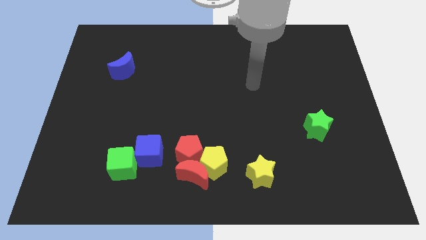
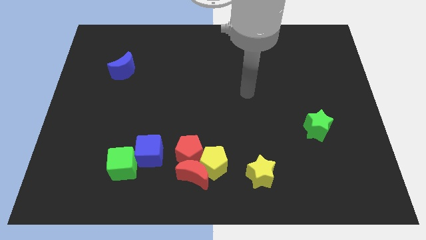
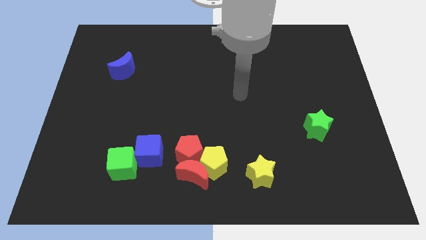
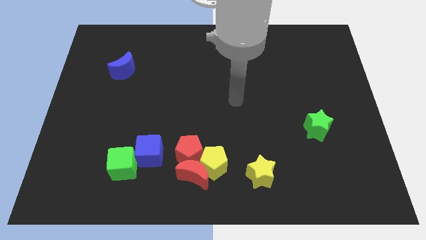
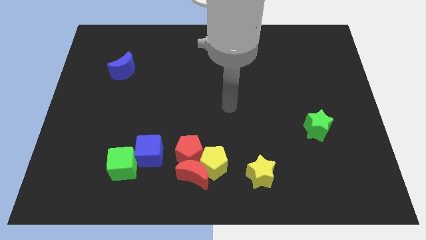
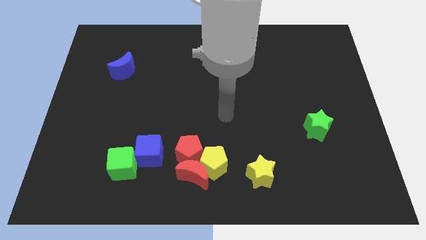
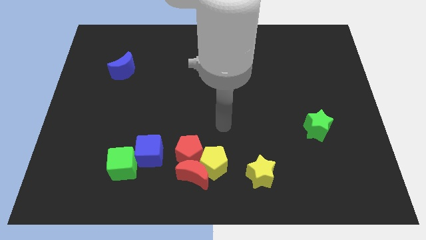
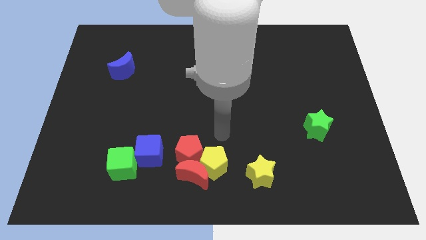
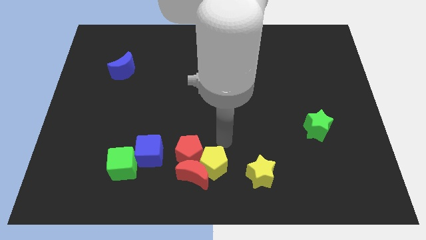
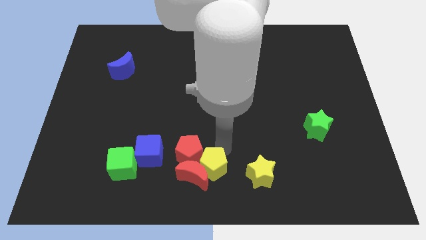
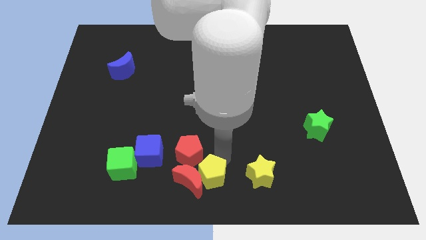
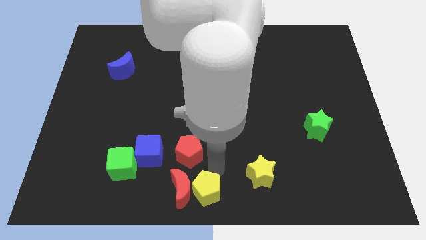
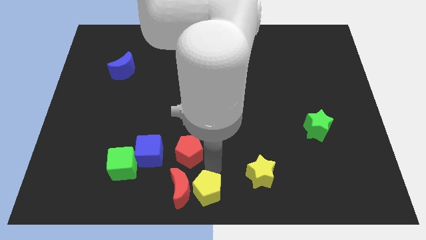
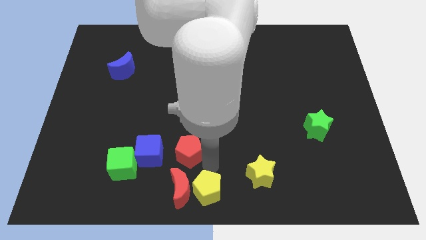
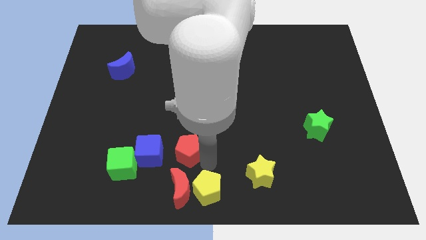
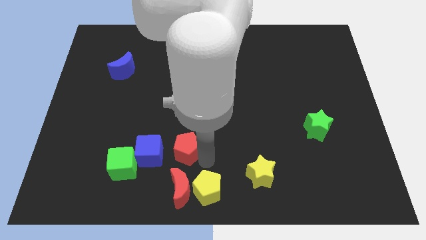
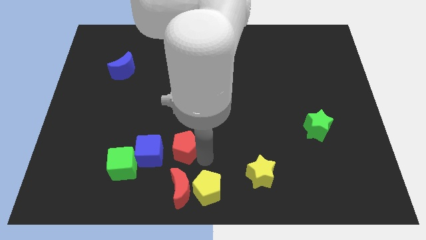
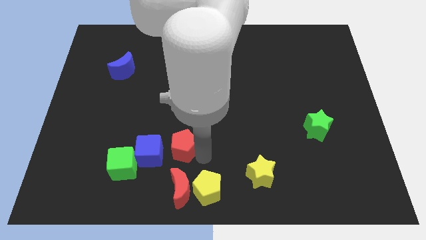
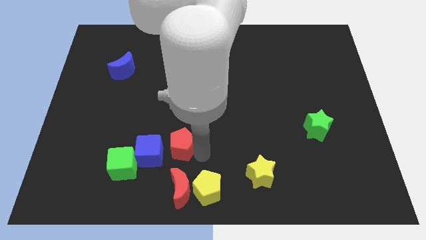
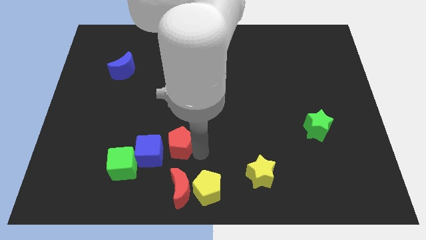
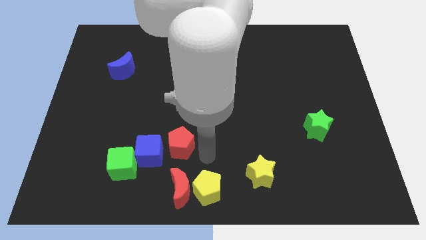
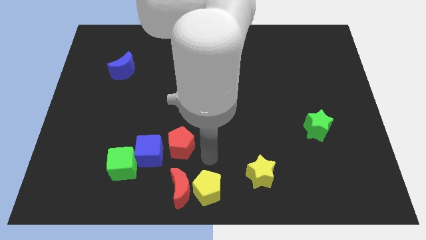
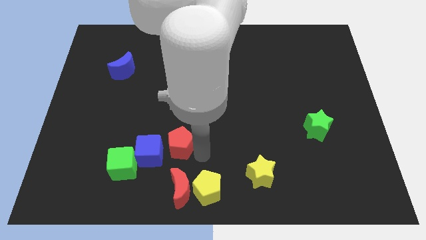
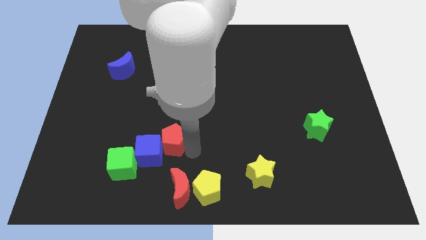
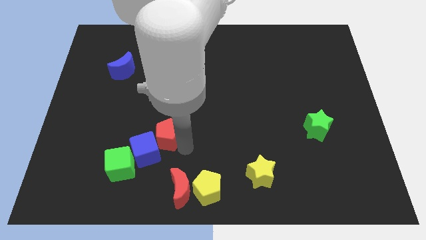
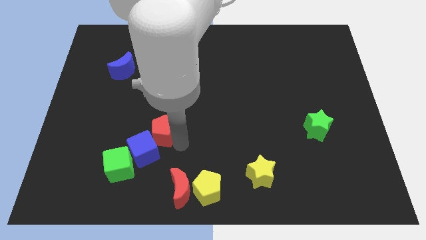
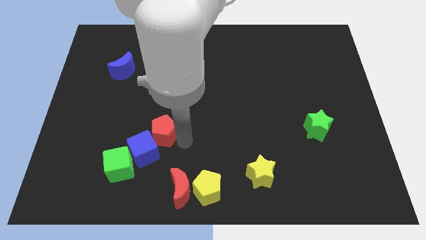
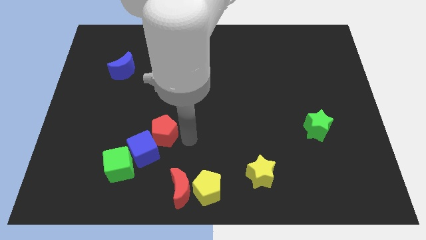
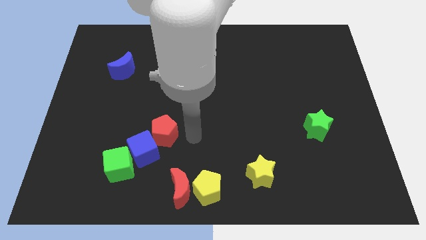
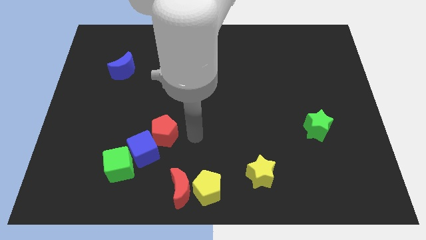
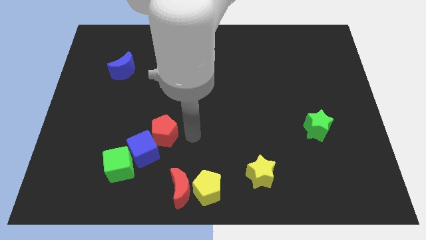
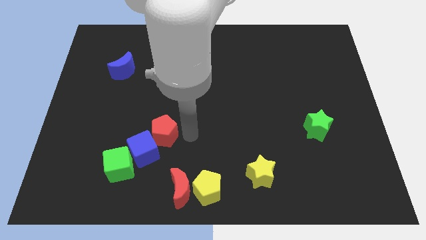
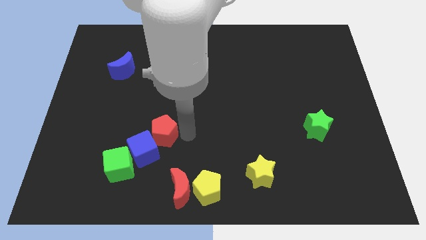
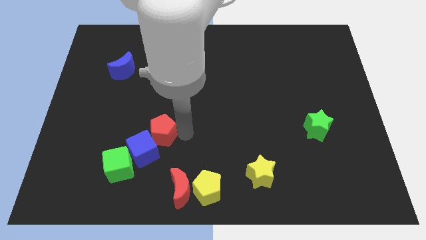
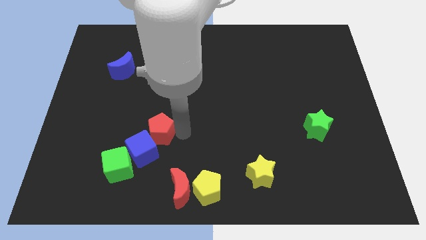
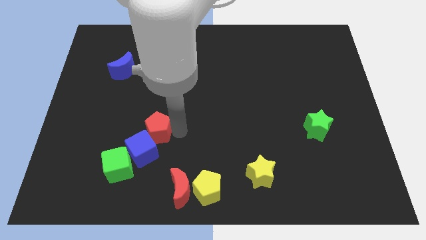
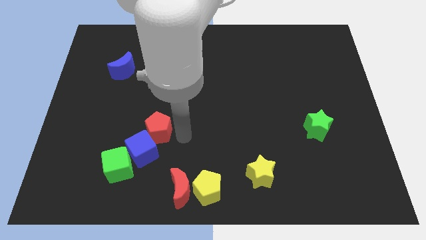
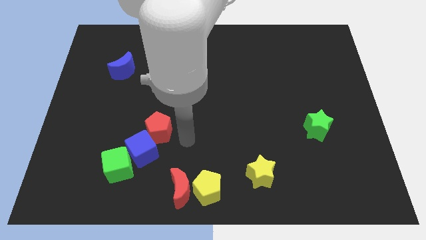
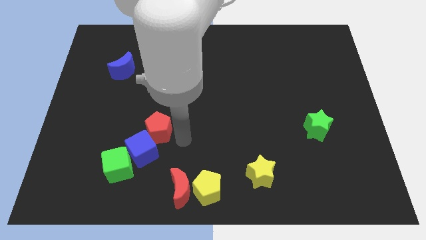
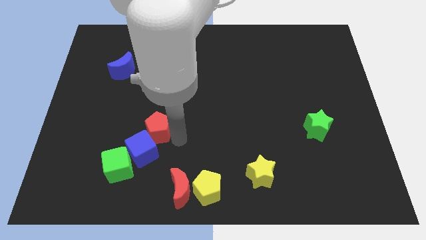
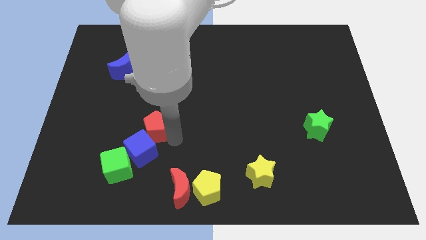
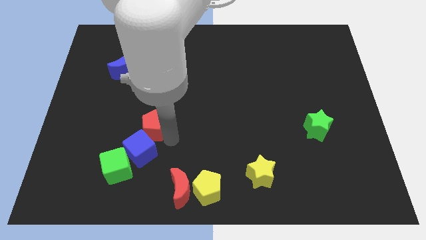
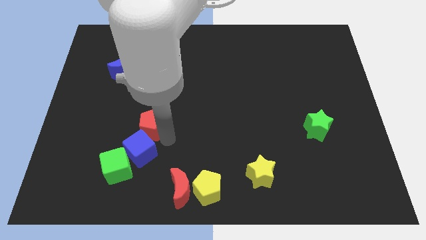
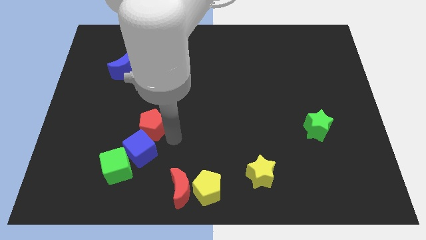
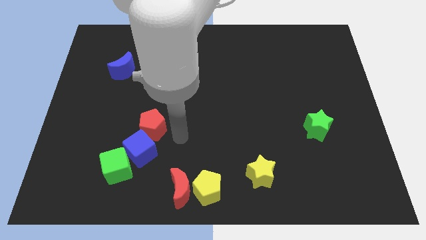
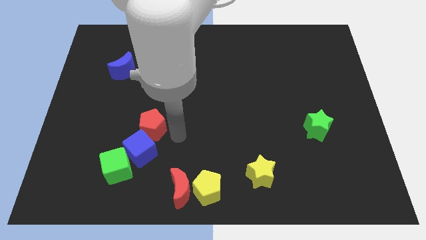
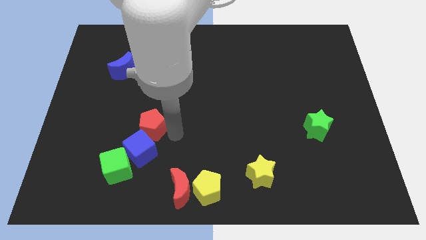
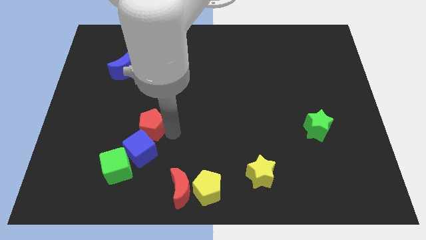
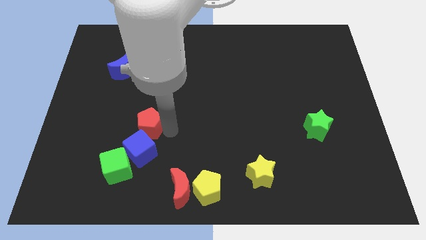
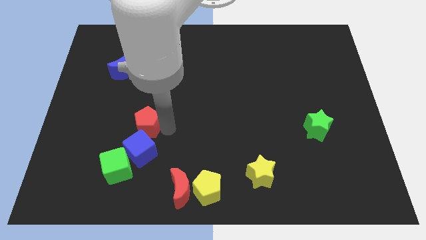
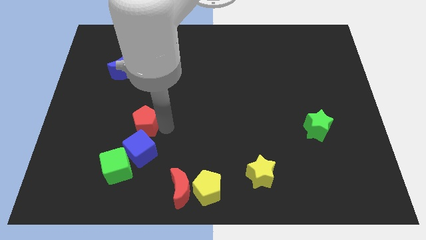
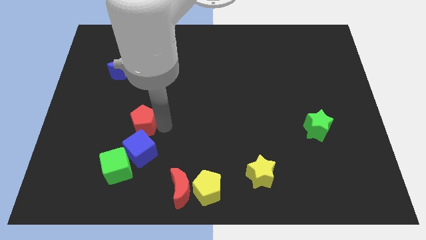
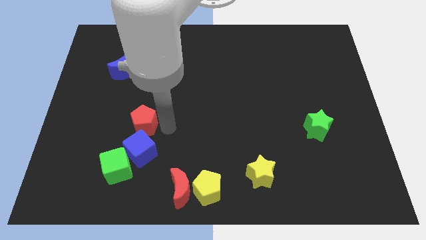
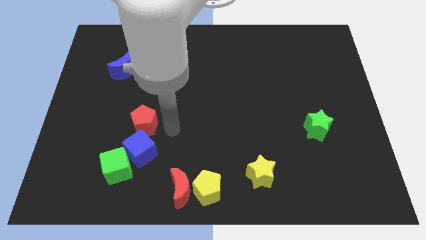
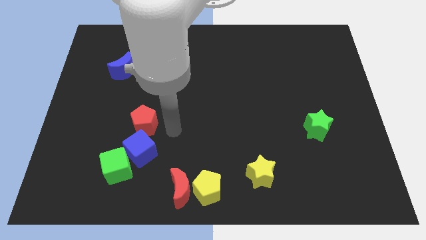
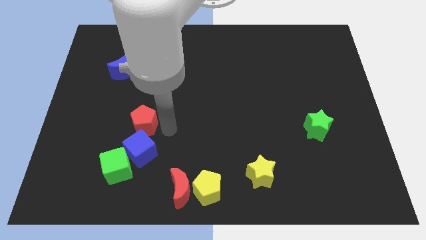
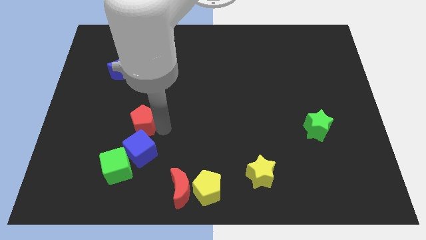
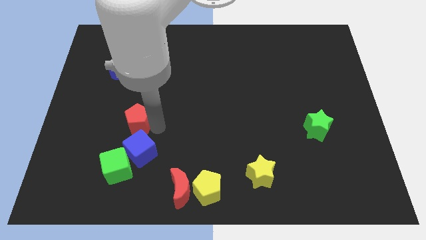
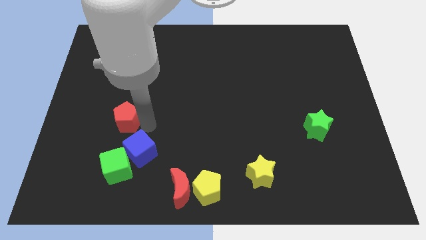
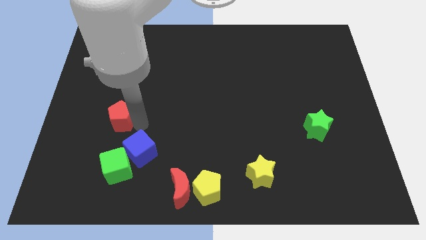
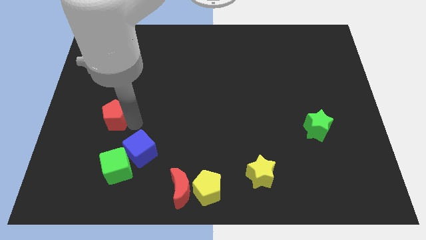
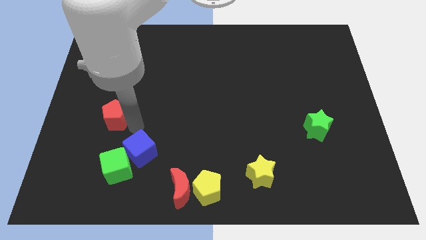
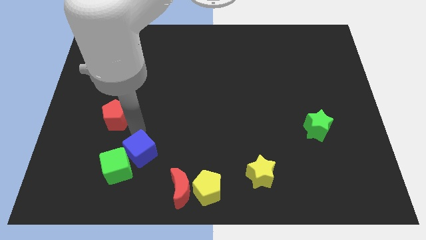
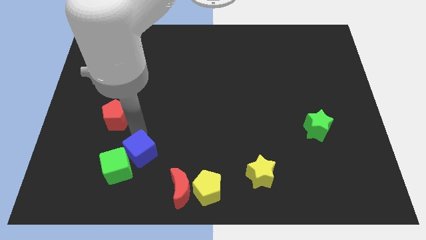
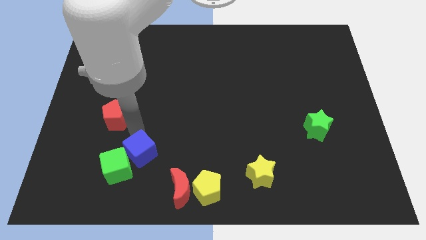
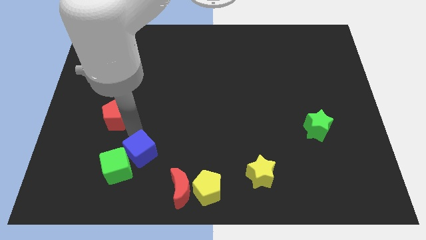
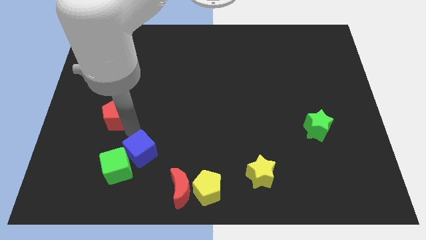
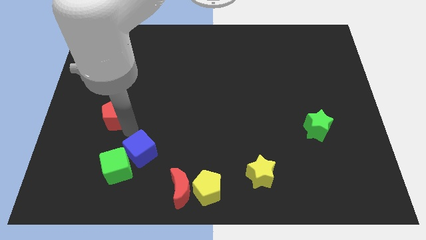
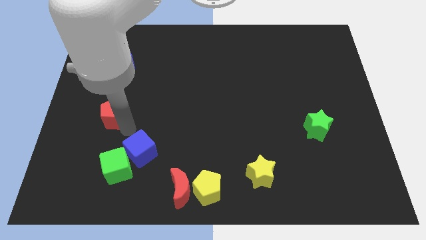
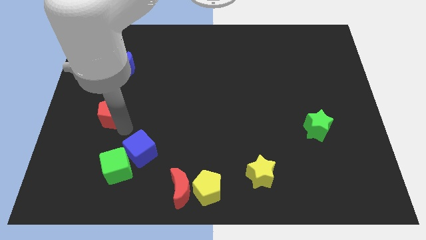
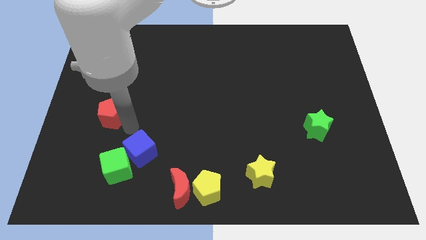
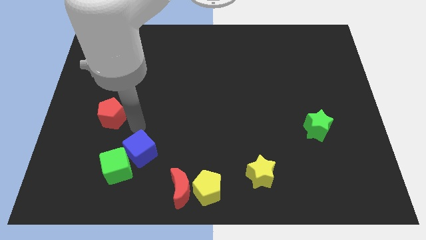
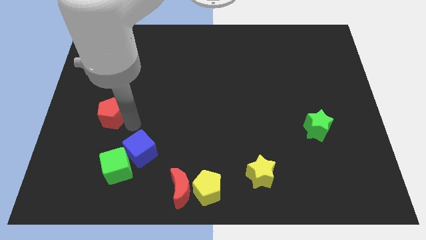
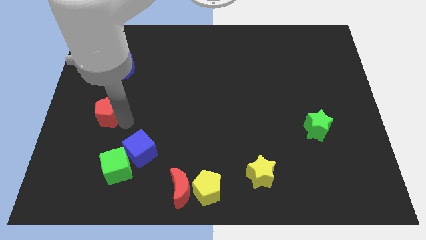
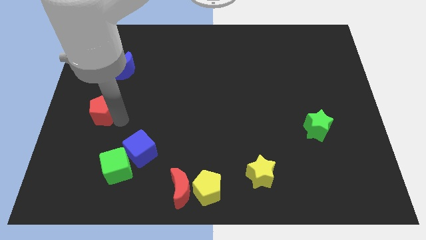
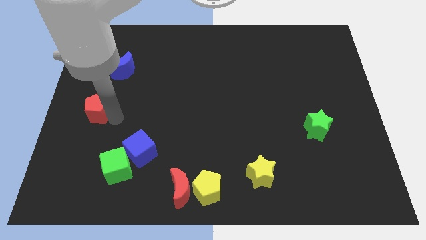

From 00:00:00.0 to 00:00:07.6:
move the red pentagon to the left side
